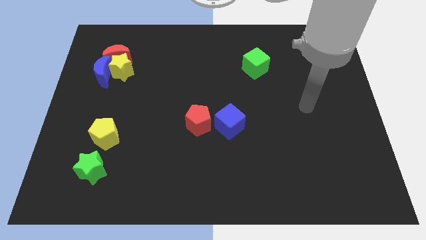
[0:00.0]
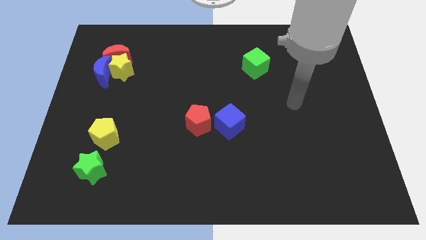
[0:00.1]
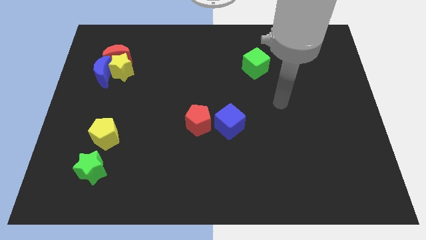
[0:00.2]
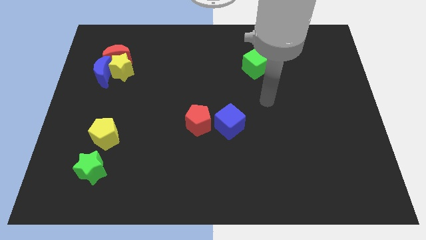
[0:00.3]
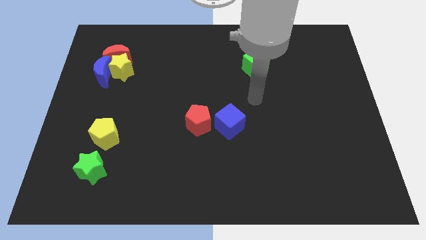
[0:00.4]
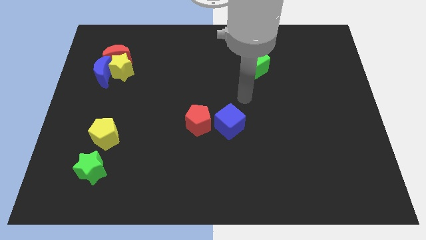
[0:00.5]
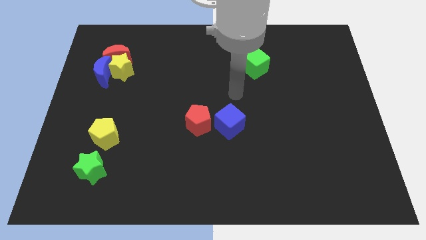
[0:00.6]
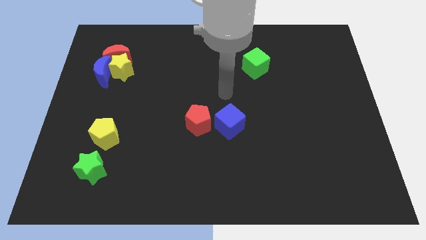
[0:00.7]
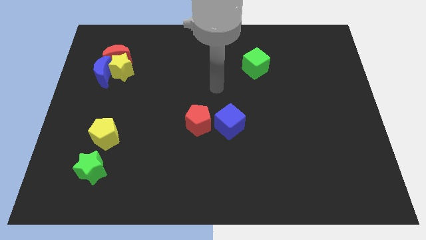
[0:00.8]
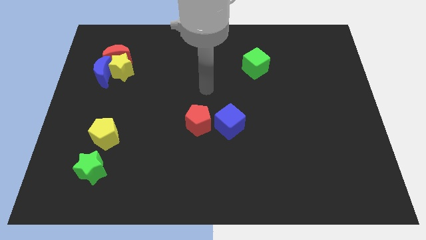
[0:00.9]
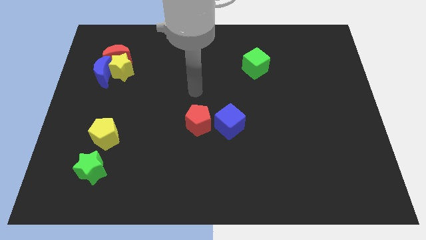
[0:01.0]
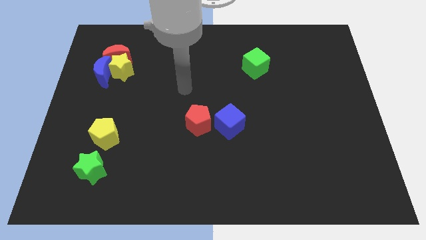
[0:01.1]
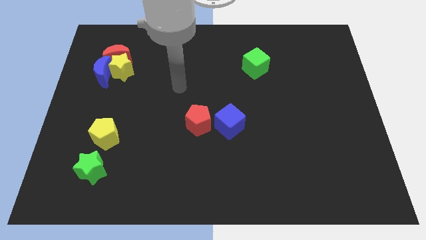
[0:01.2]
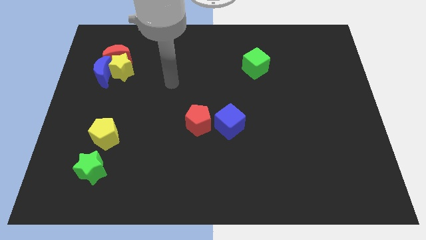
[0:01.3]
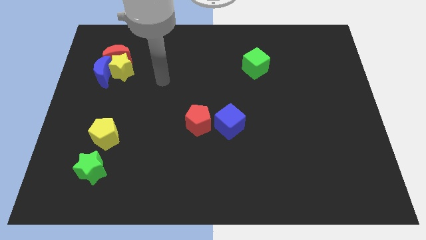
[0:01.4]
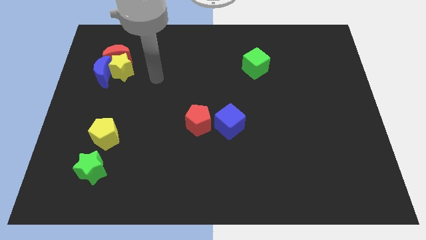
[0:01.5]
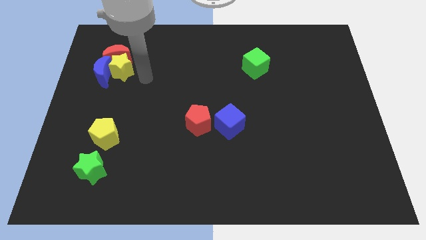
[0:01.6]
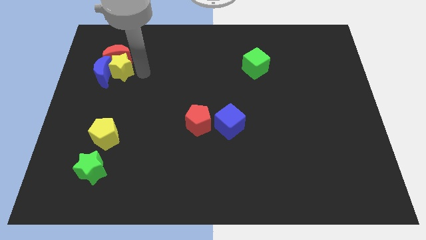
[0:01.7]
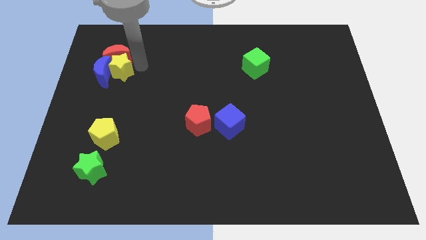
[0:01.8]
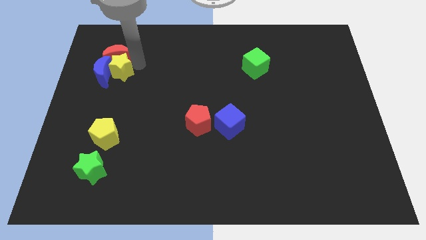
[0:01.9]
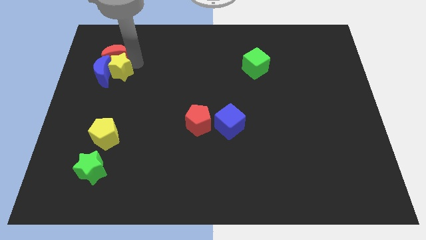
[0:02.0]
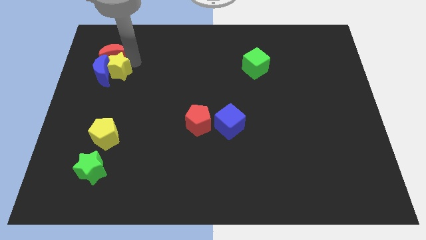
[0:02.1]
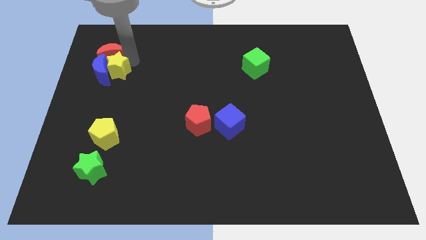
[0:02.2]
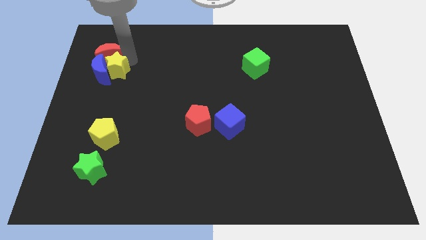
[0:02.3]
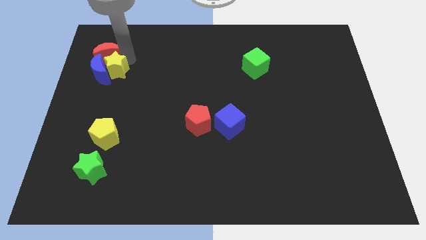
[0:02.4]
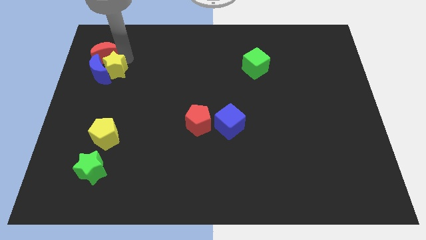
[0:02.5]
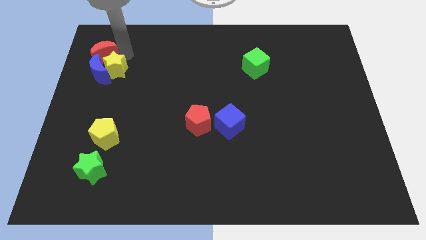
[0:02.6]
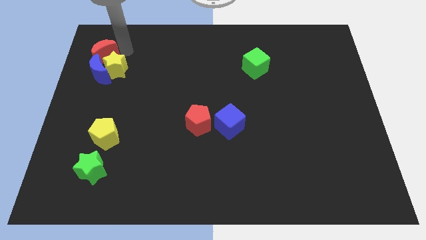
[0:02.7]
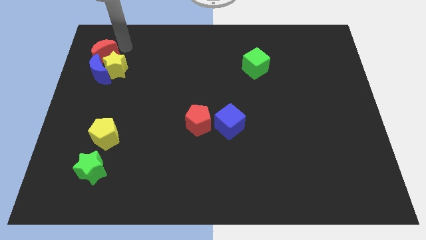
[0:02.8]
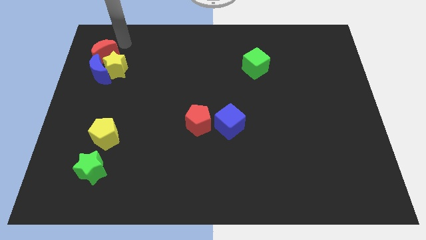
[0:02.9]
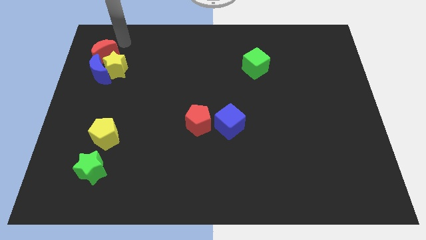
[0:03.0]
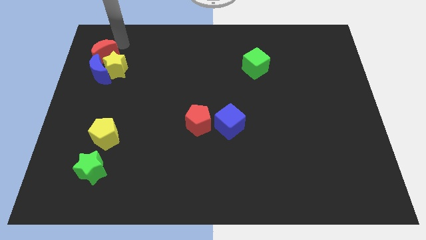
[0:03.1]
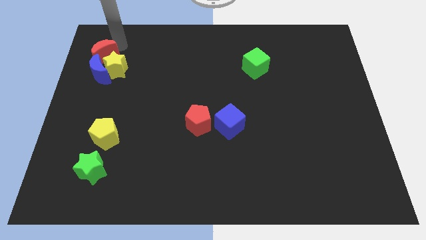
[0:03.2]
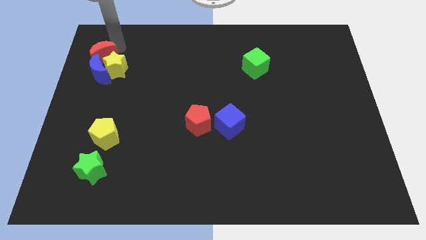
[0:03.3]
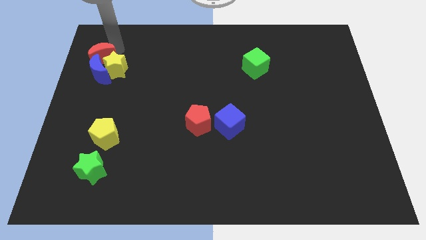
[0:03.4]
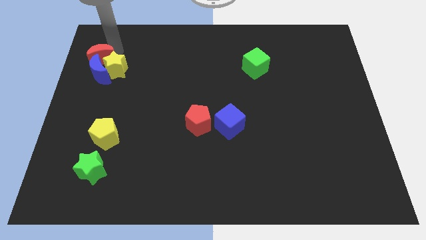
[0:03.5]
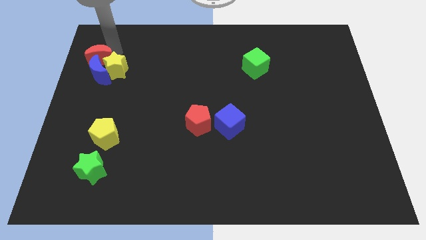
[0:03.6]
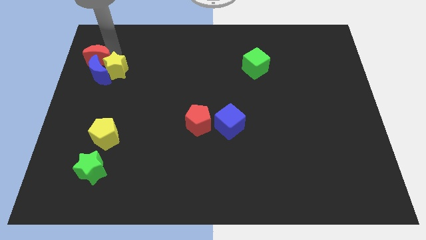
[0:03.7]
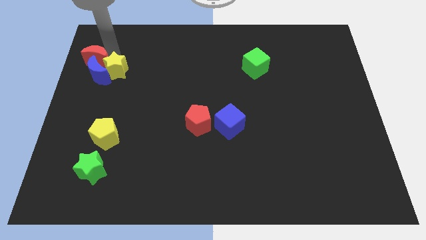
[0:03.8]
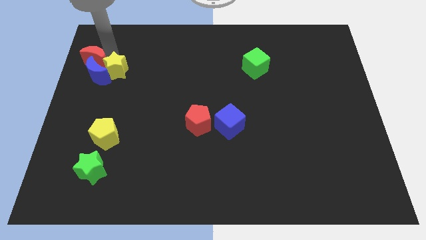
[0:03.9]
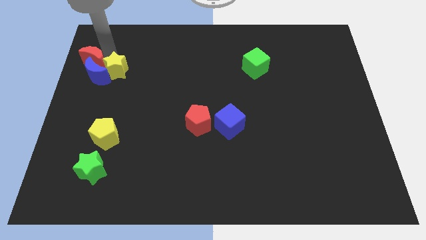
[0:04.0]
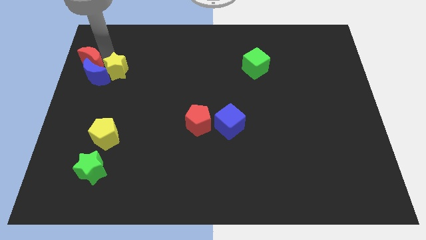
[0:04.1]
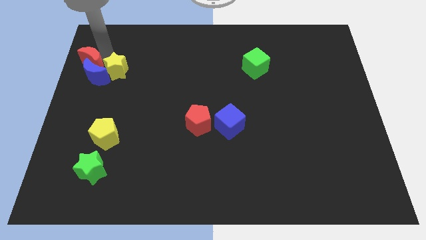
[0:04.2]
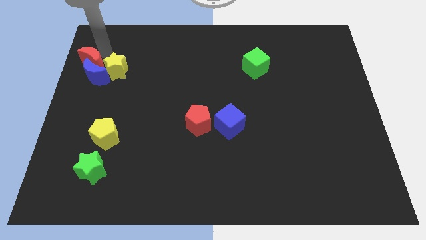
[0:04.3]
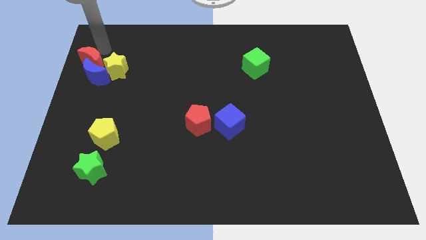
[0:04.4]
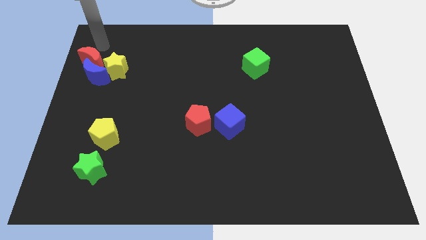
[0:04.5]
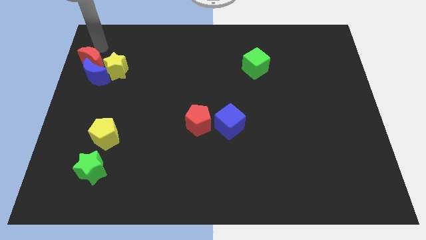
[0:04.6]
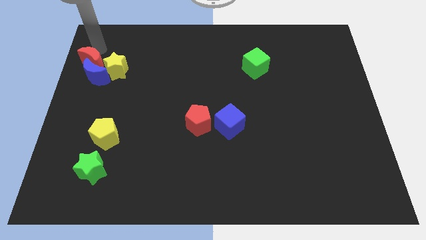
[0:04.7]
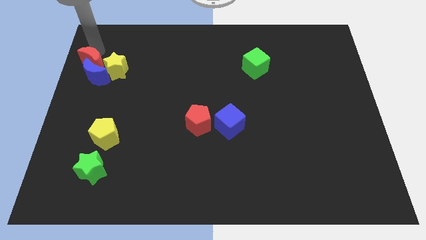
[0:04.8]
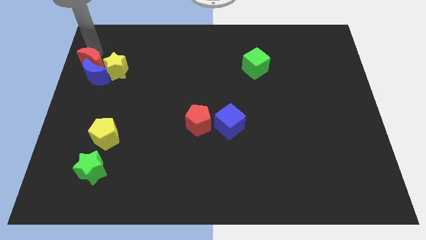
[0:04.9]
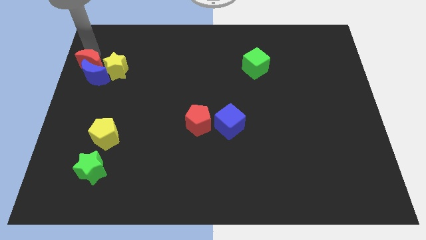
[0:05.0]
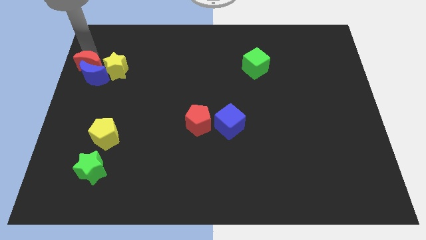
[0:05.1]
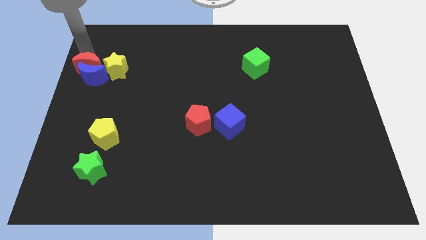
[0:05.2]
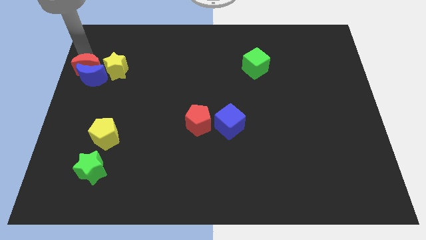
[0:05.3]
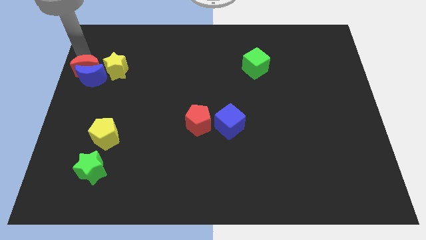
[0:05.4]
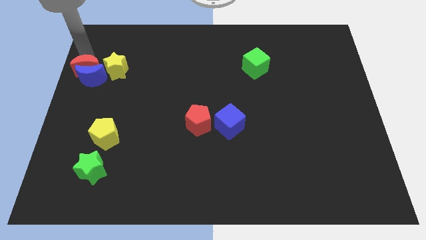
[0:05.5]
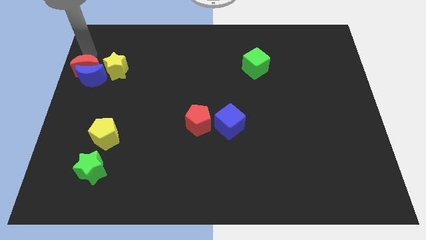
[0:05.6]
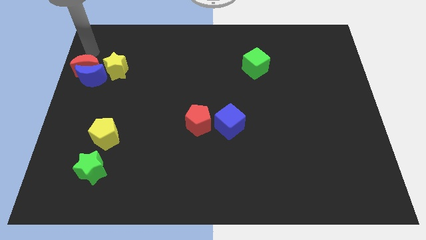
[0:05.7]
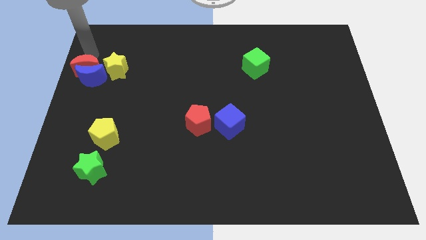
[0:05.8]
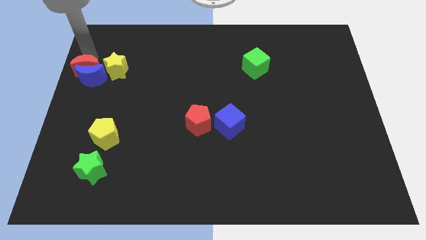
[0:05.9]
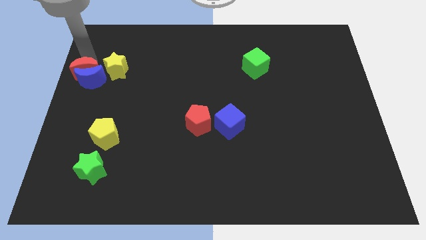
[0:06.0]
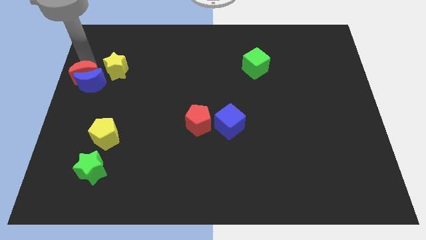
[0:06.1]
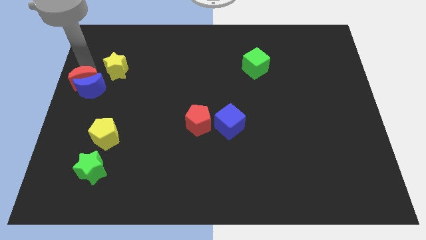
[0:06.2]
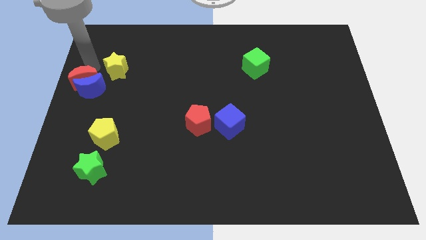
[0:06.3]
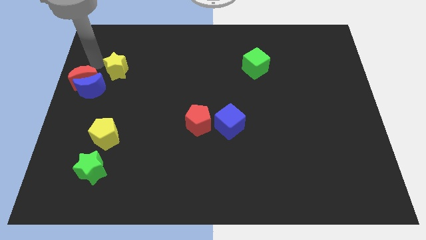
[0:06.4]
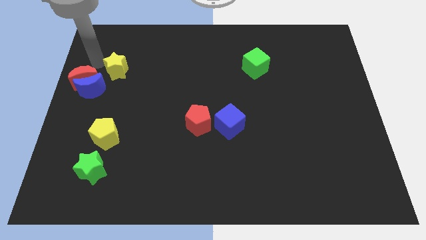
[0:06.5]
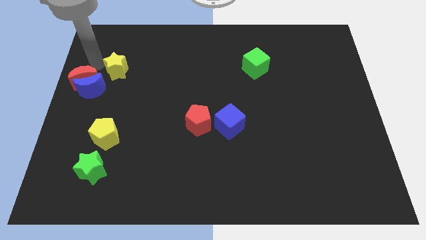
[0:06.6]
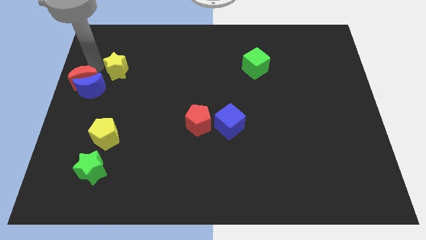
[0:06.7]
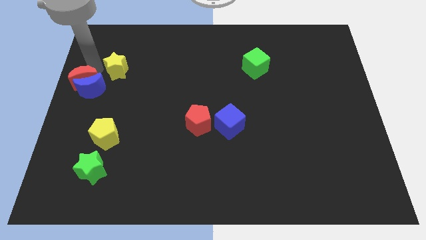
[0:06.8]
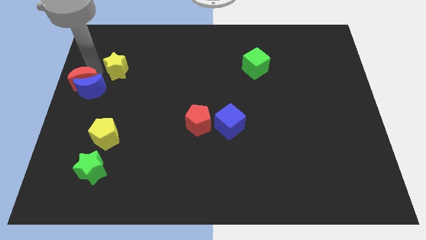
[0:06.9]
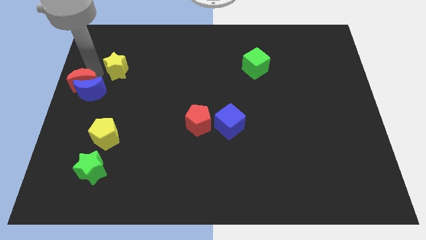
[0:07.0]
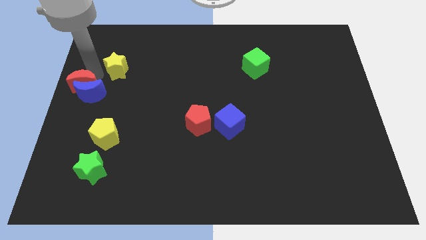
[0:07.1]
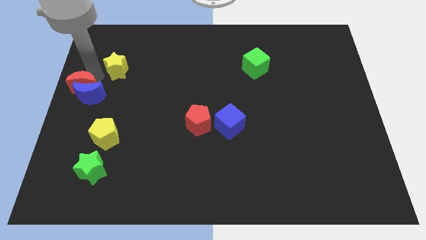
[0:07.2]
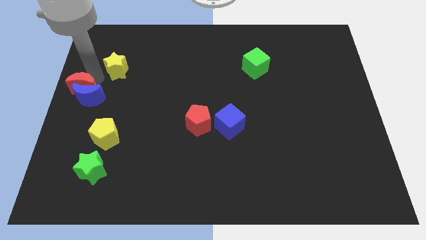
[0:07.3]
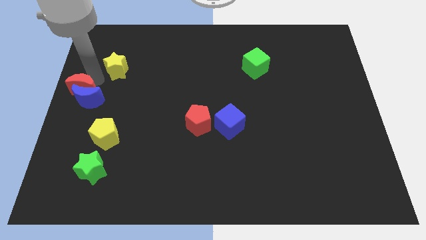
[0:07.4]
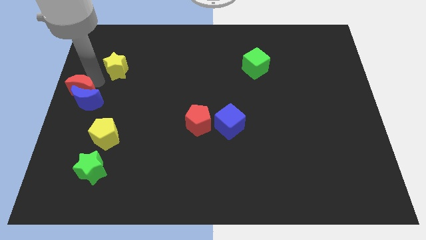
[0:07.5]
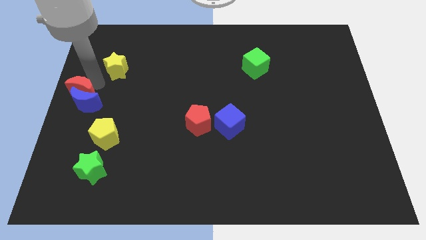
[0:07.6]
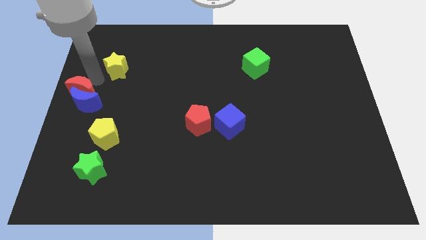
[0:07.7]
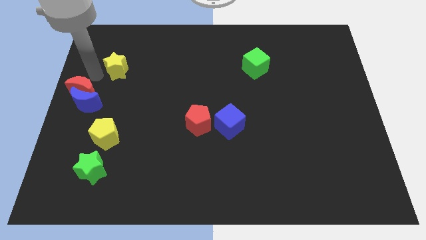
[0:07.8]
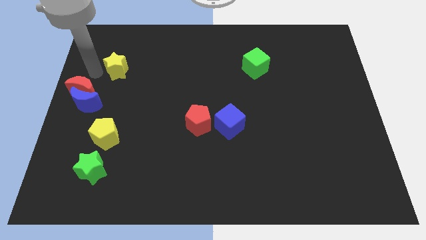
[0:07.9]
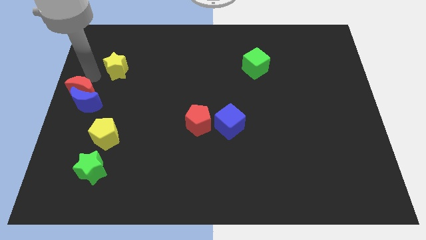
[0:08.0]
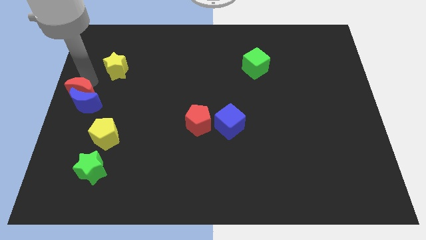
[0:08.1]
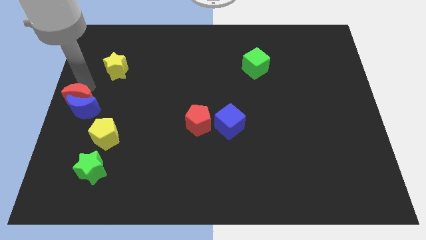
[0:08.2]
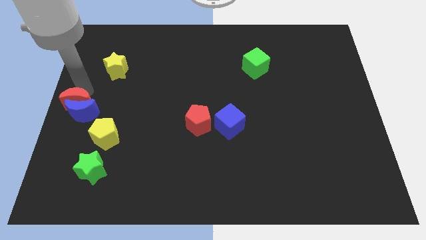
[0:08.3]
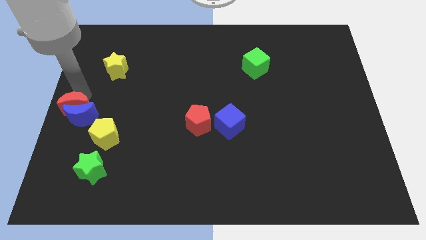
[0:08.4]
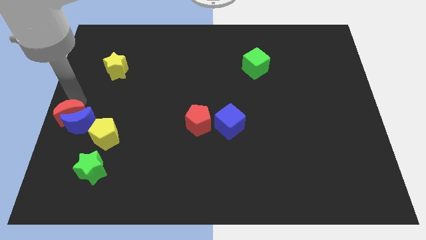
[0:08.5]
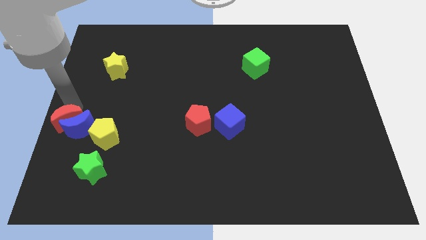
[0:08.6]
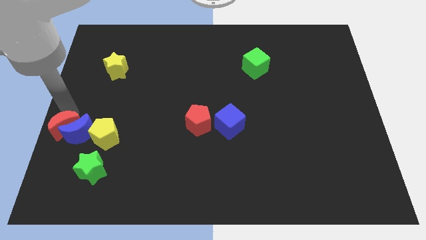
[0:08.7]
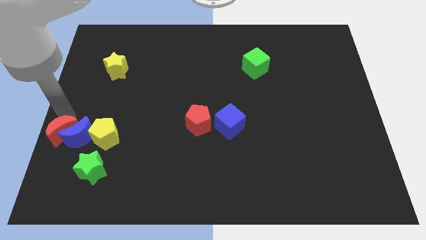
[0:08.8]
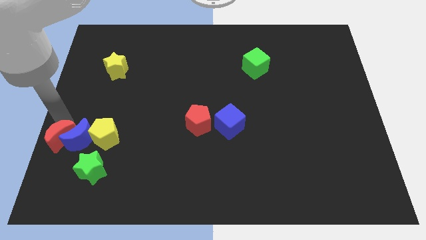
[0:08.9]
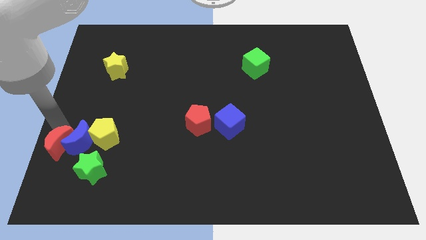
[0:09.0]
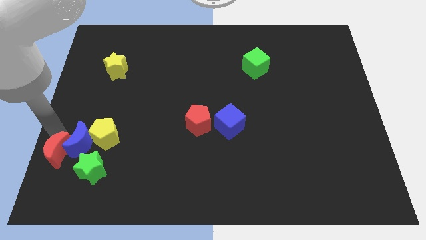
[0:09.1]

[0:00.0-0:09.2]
put the red moon to the bottom left of the yellow pentagon
